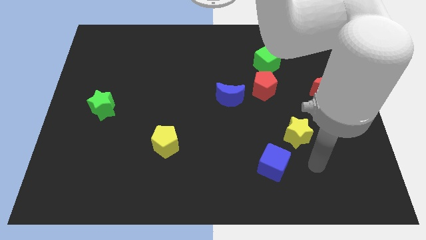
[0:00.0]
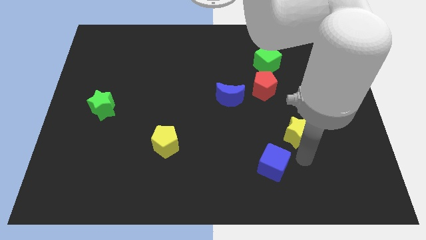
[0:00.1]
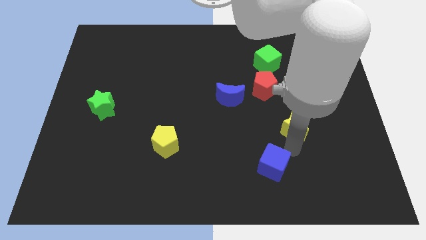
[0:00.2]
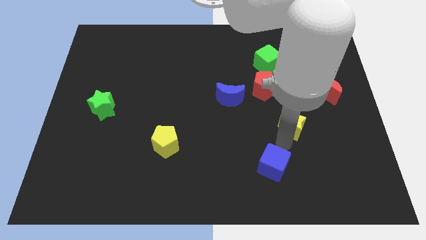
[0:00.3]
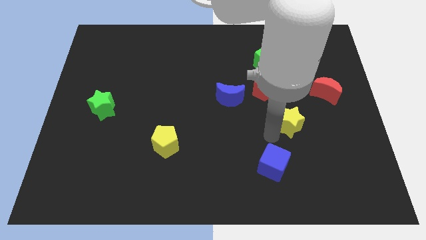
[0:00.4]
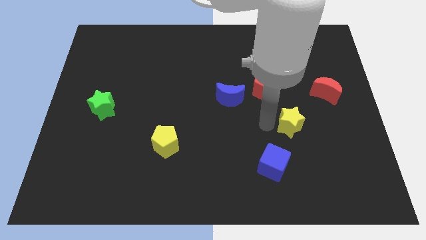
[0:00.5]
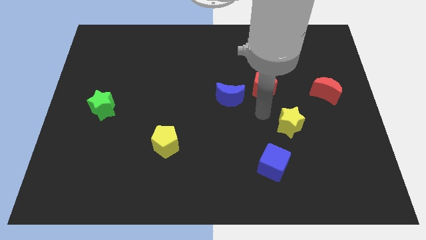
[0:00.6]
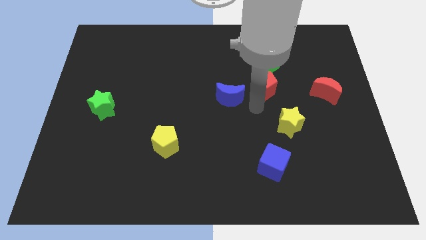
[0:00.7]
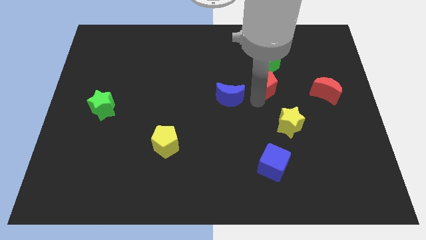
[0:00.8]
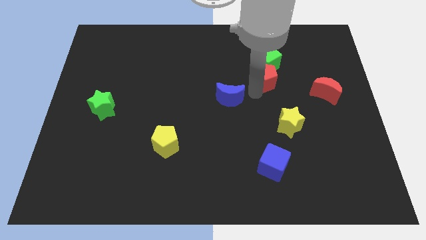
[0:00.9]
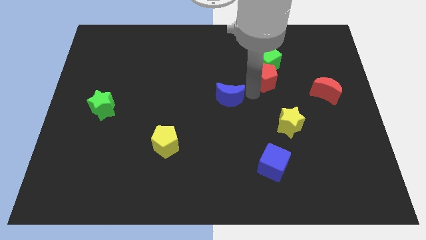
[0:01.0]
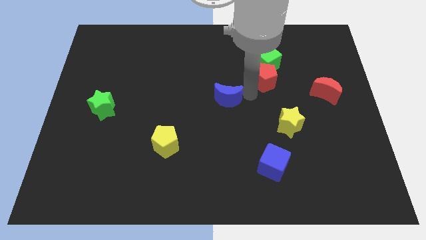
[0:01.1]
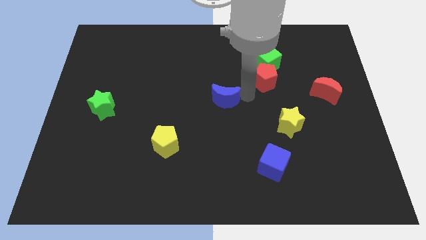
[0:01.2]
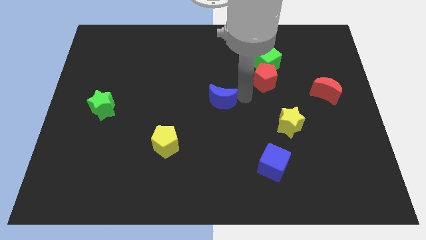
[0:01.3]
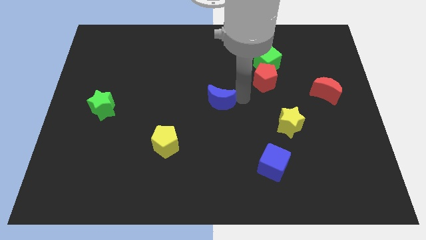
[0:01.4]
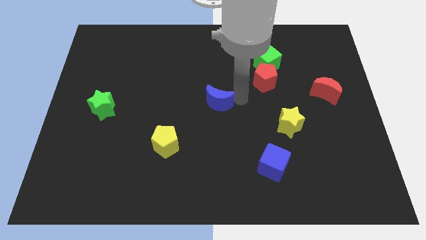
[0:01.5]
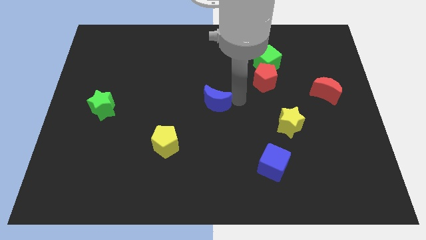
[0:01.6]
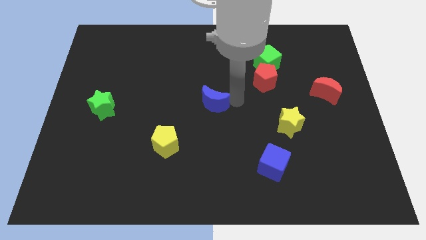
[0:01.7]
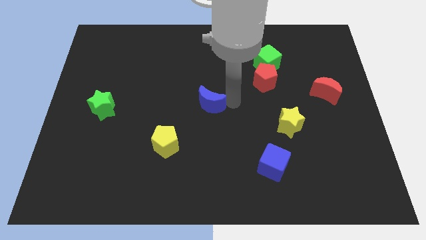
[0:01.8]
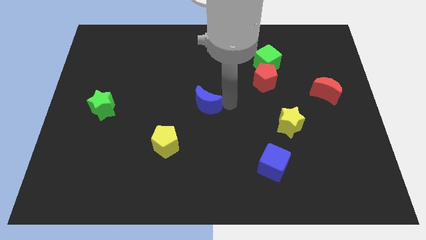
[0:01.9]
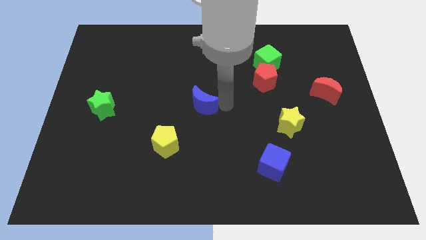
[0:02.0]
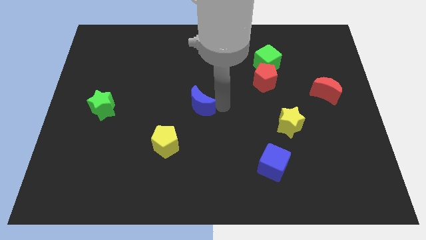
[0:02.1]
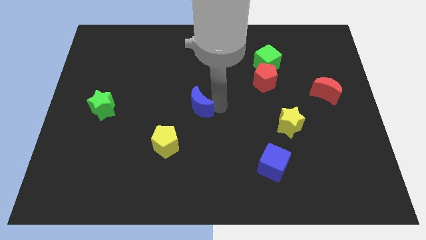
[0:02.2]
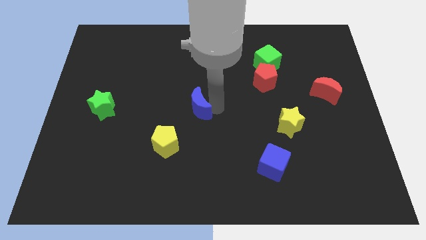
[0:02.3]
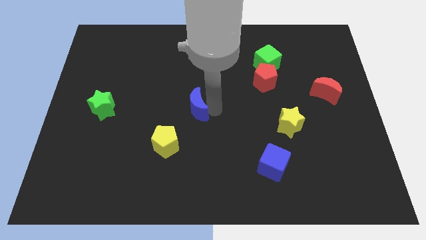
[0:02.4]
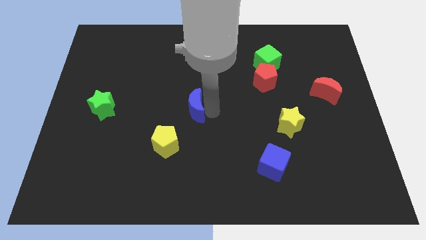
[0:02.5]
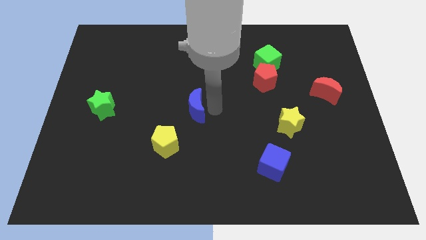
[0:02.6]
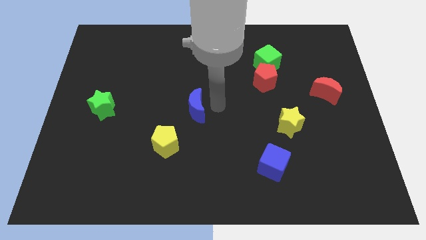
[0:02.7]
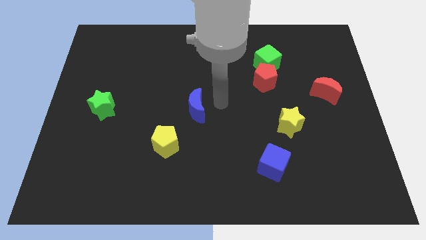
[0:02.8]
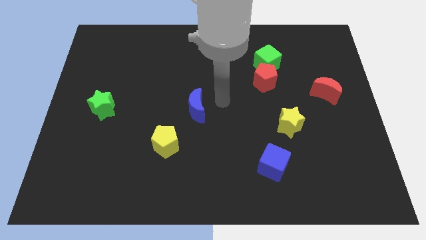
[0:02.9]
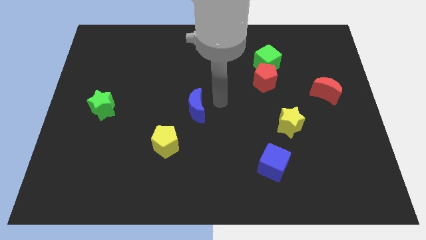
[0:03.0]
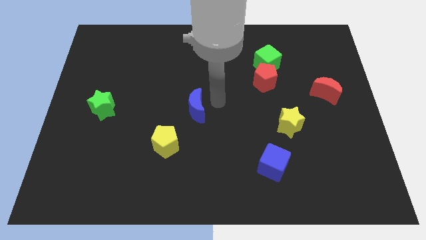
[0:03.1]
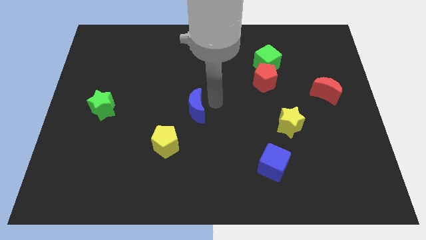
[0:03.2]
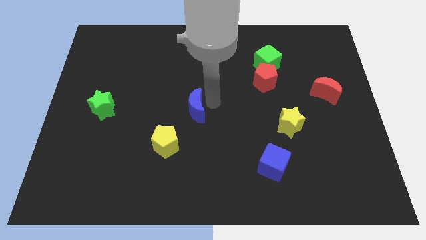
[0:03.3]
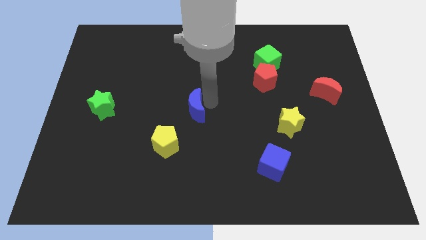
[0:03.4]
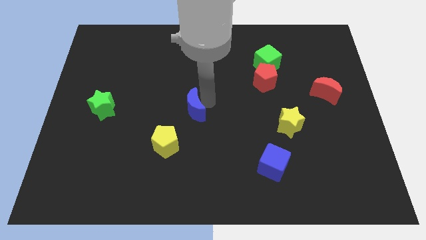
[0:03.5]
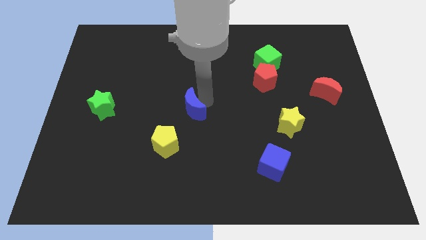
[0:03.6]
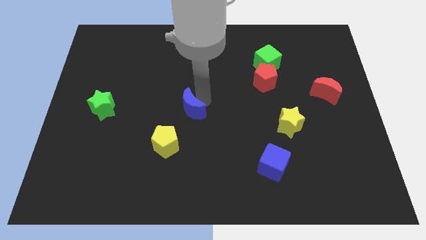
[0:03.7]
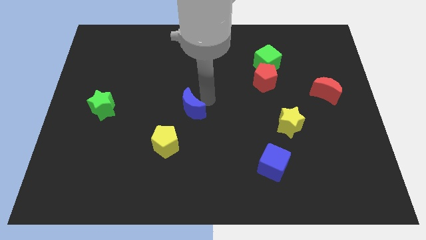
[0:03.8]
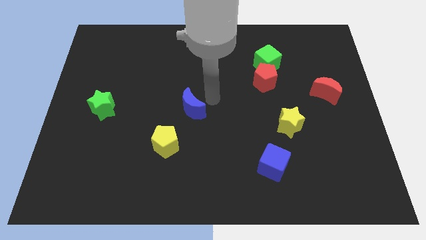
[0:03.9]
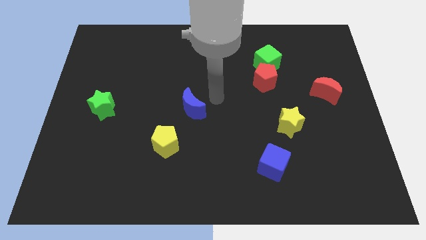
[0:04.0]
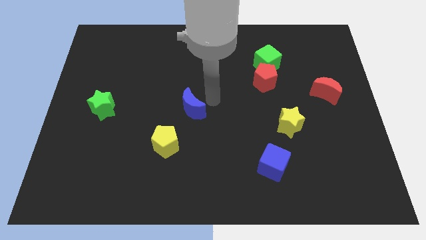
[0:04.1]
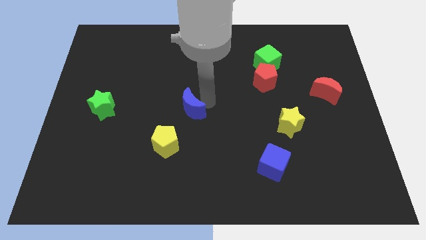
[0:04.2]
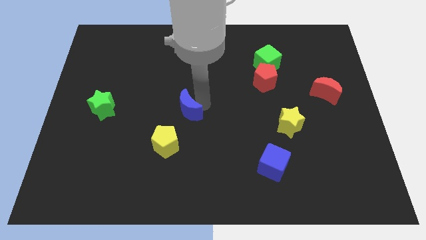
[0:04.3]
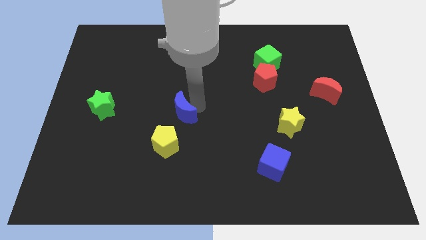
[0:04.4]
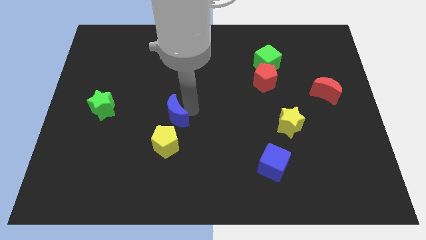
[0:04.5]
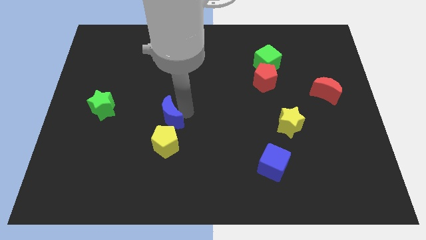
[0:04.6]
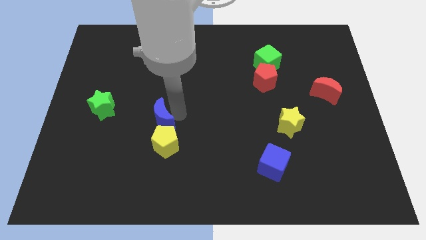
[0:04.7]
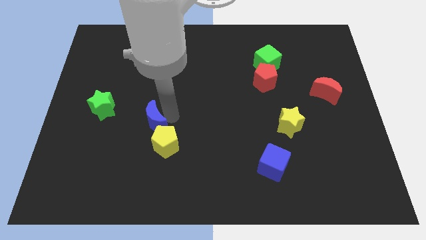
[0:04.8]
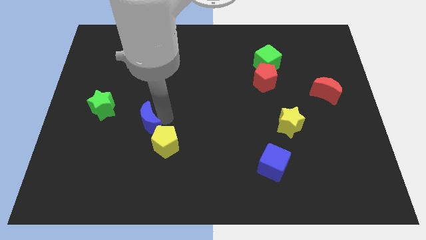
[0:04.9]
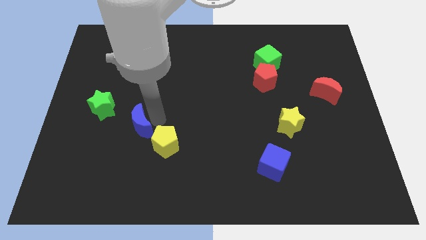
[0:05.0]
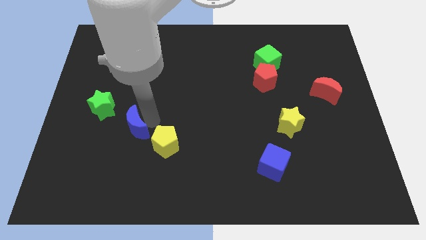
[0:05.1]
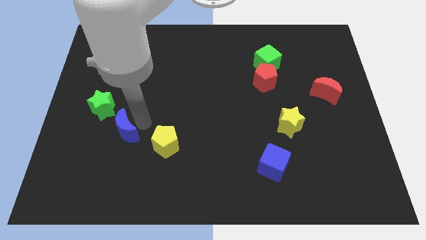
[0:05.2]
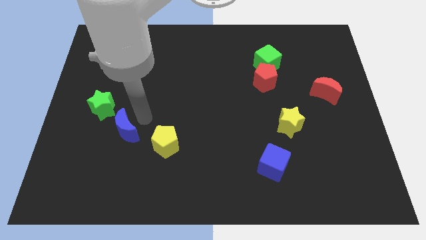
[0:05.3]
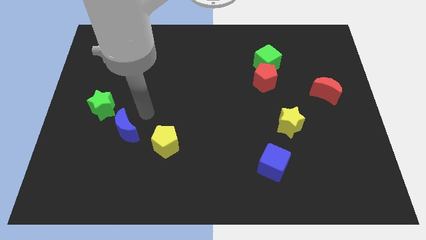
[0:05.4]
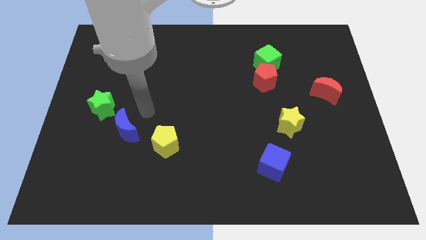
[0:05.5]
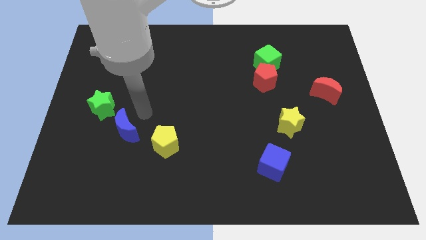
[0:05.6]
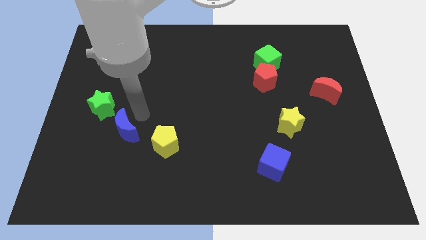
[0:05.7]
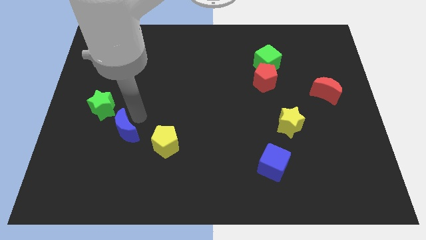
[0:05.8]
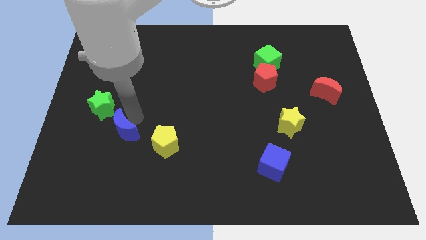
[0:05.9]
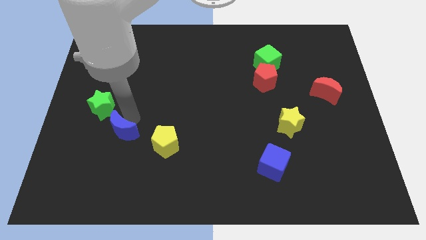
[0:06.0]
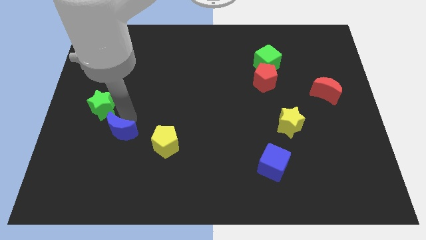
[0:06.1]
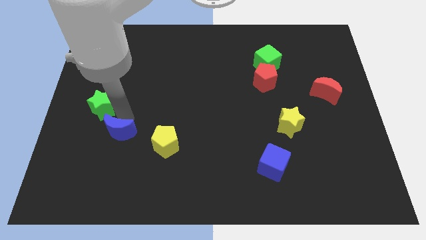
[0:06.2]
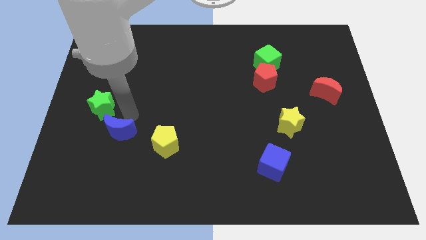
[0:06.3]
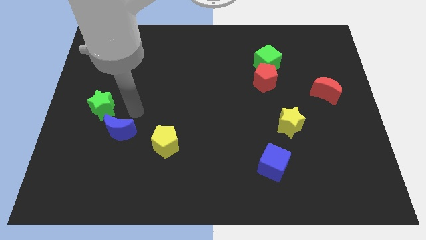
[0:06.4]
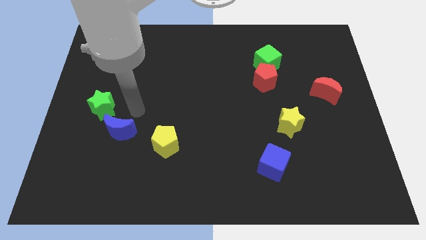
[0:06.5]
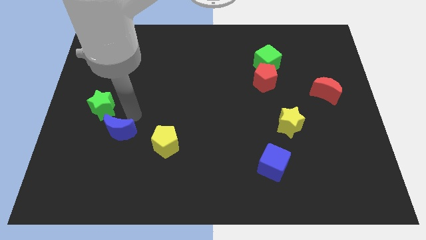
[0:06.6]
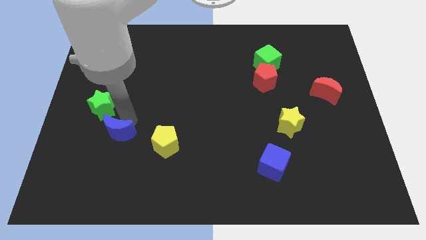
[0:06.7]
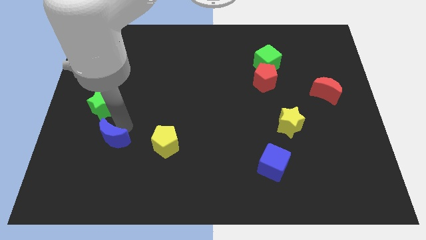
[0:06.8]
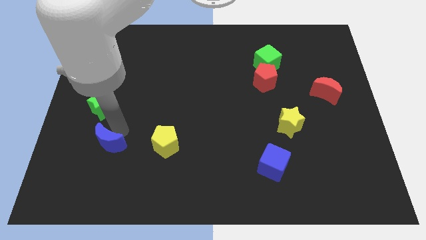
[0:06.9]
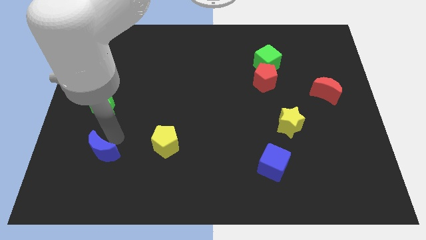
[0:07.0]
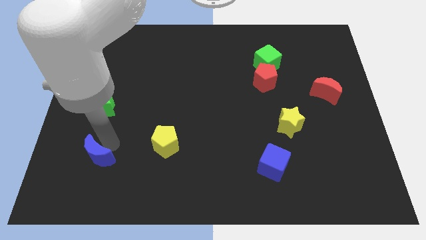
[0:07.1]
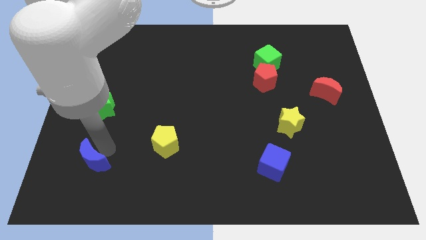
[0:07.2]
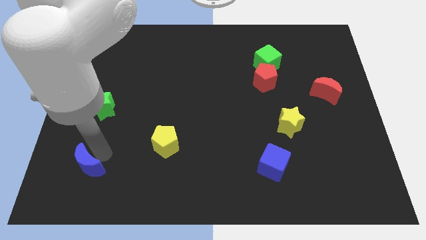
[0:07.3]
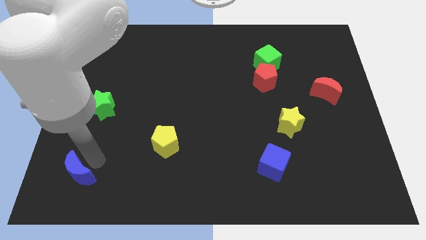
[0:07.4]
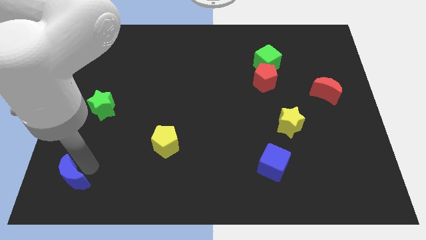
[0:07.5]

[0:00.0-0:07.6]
slide the blue moon to the bottom left
